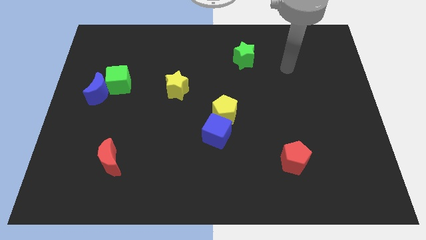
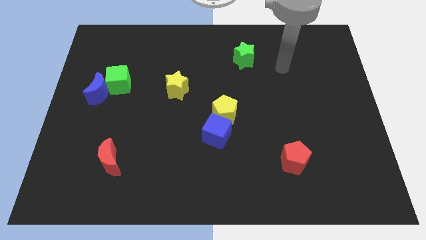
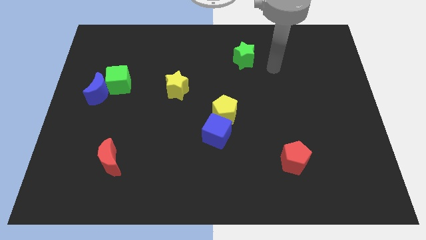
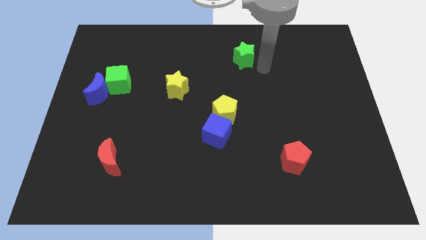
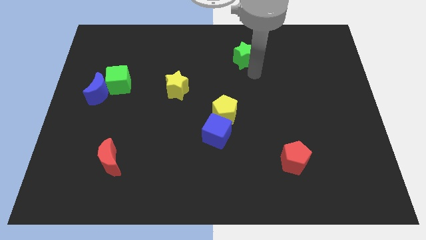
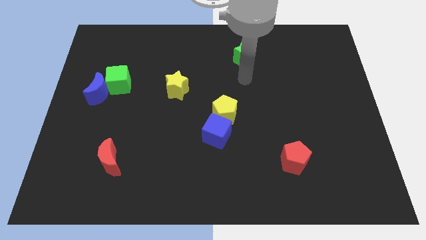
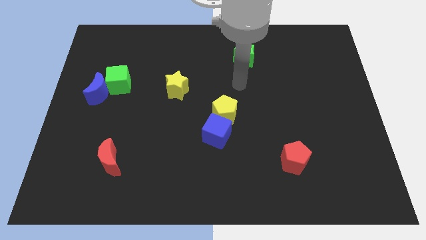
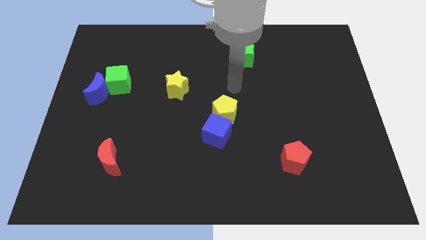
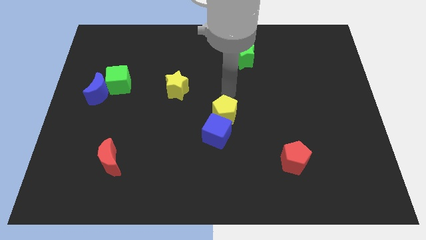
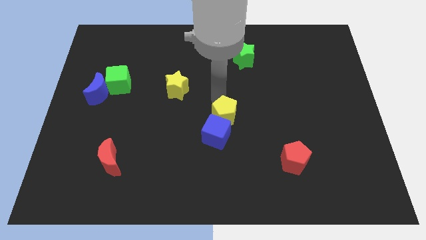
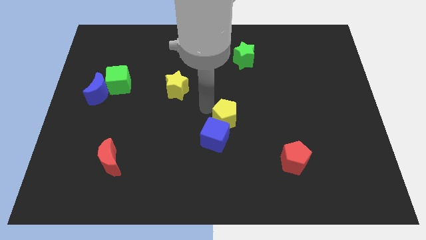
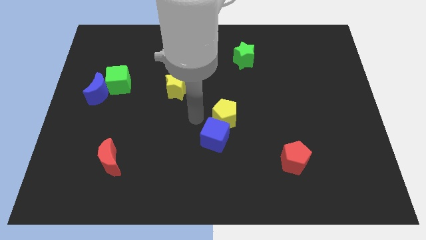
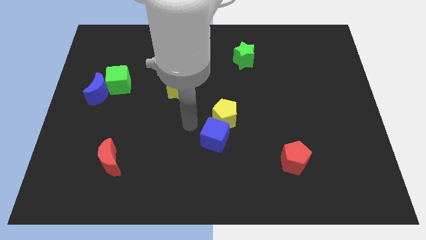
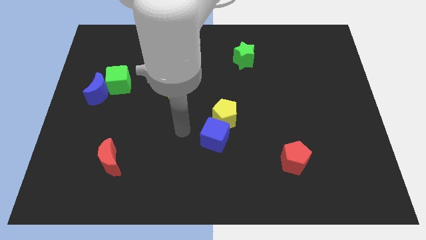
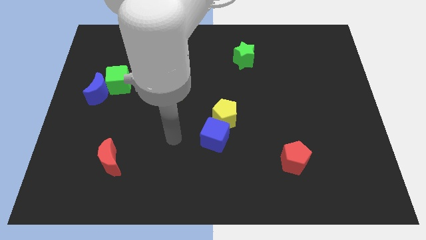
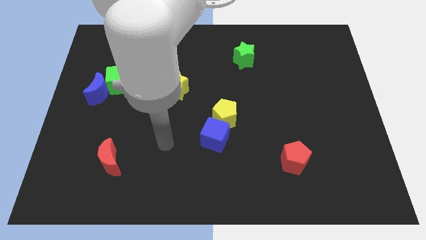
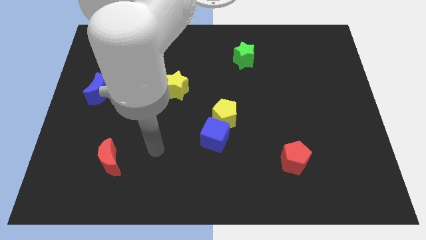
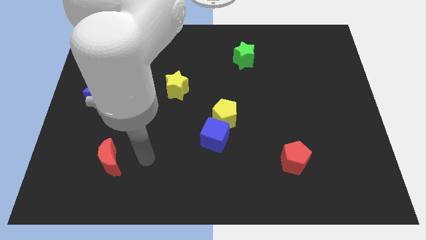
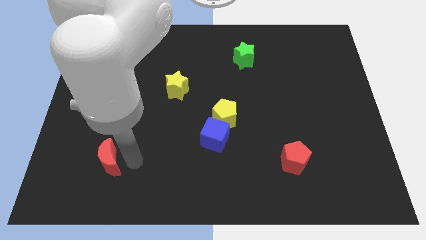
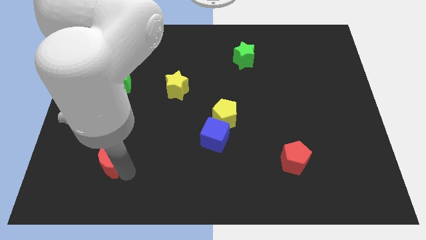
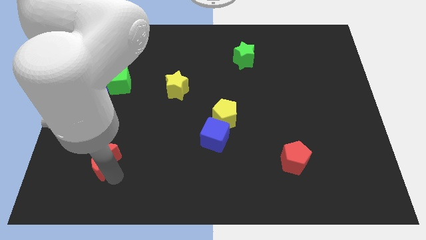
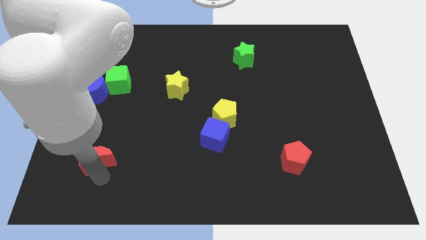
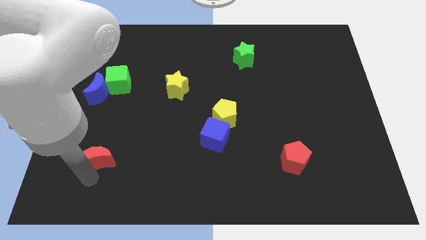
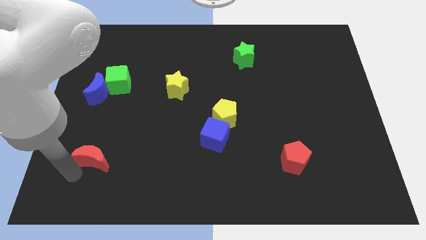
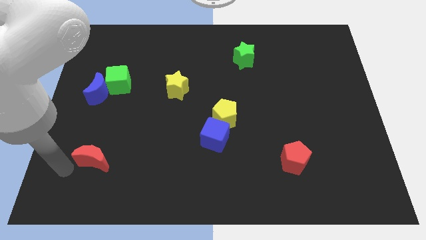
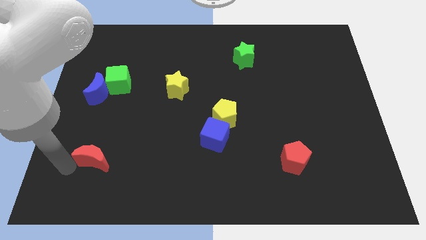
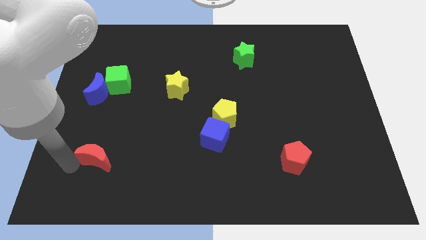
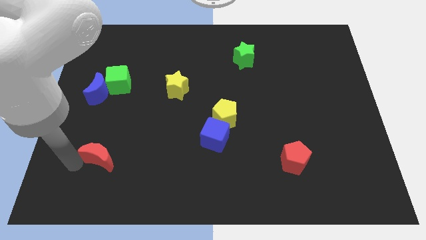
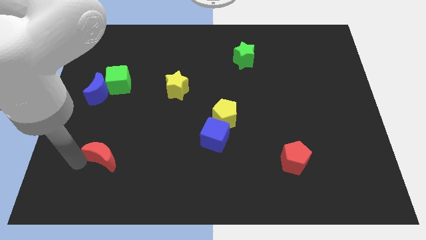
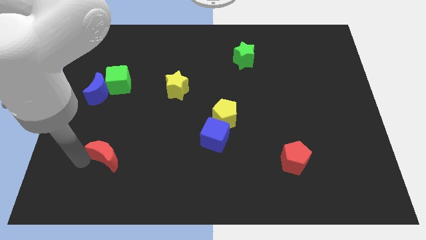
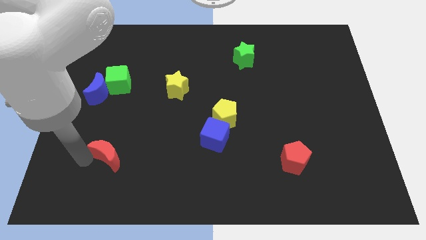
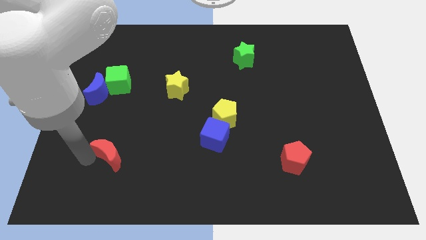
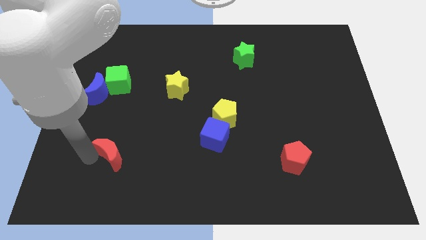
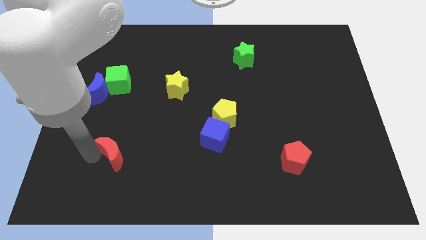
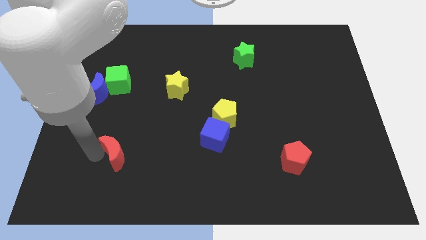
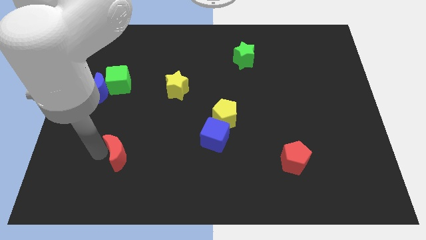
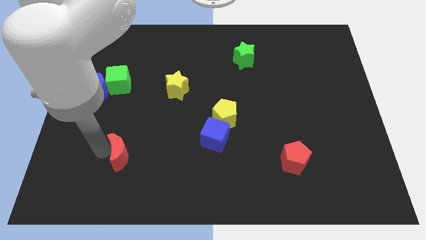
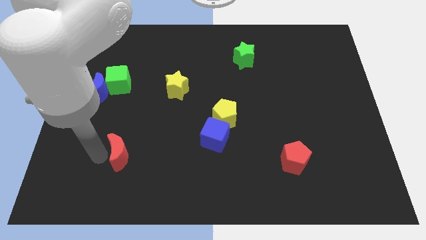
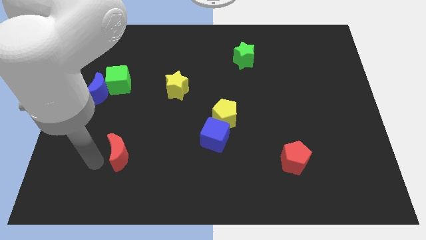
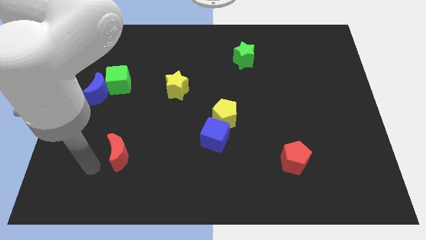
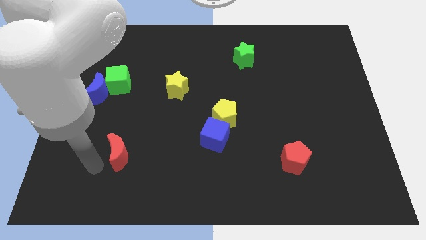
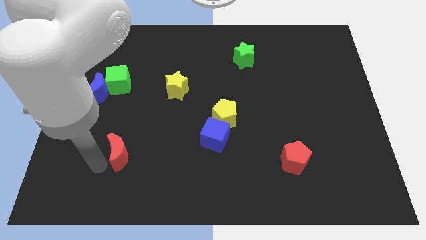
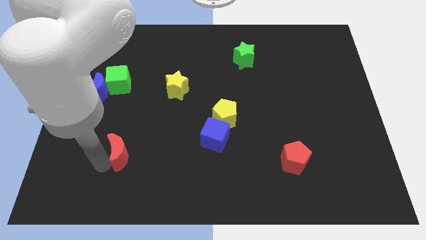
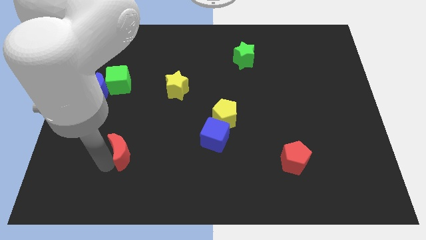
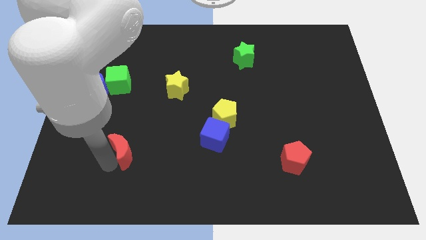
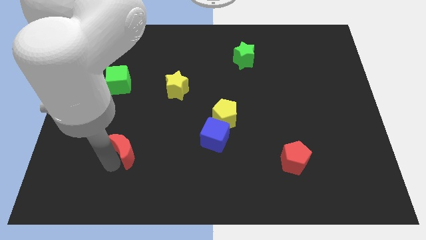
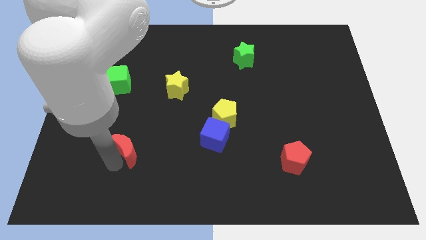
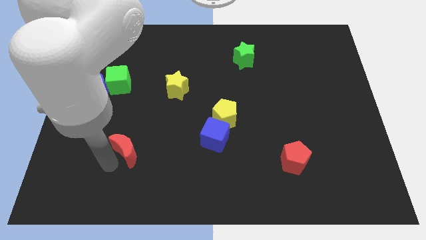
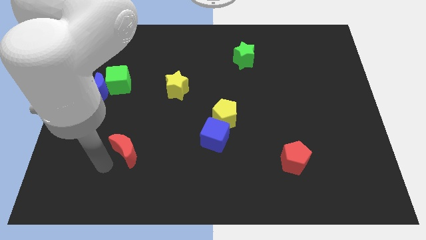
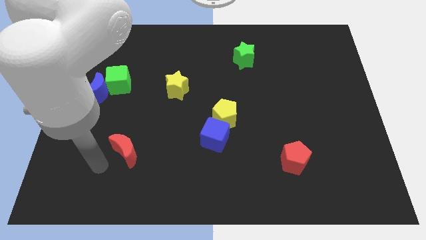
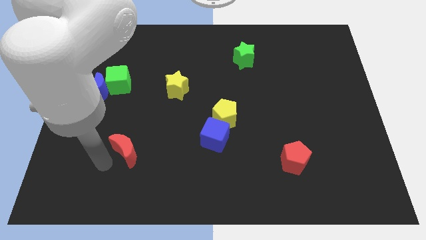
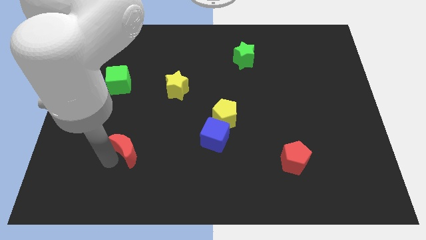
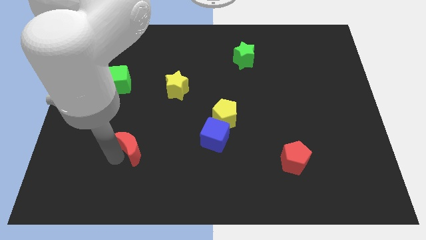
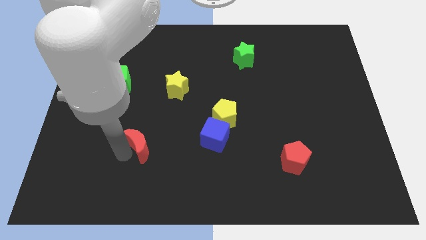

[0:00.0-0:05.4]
push the red moon somewhat diagonally up and right

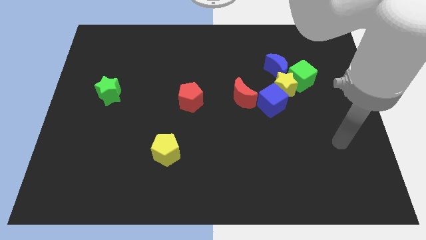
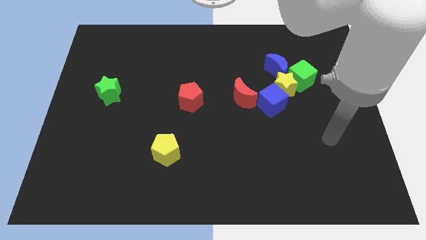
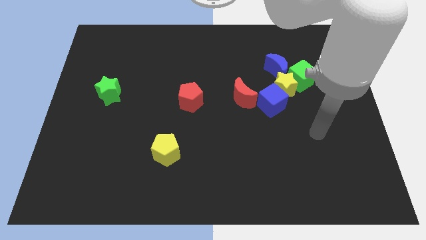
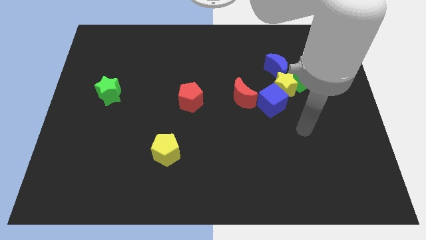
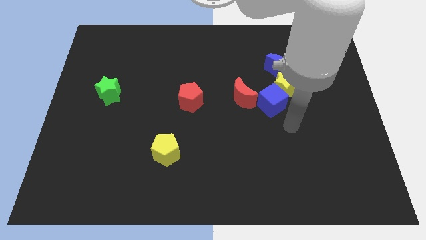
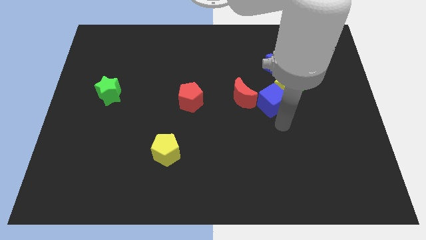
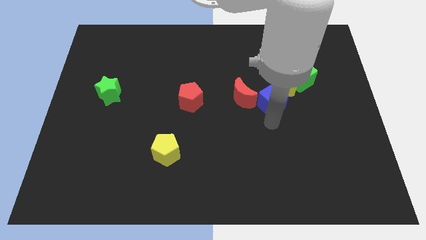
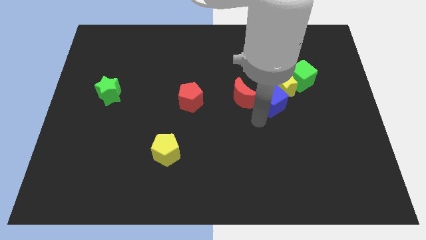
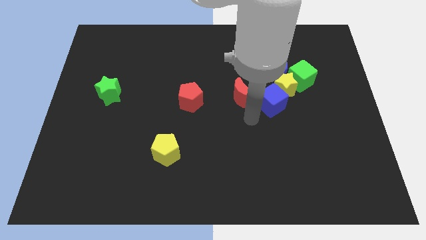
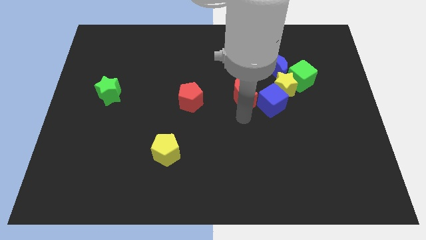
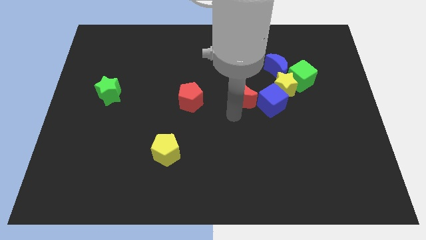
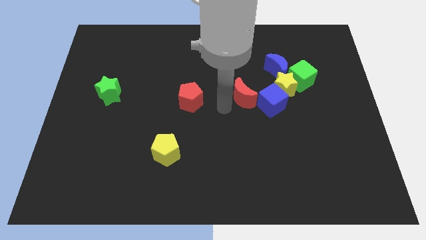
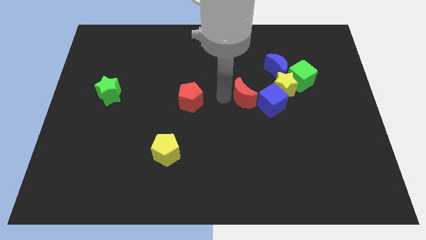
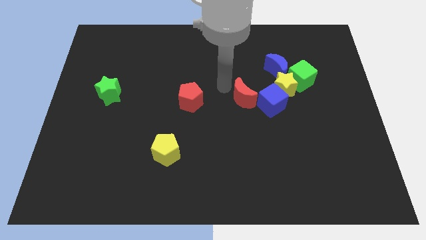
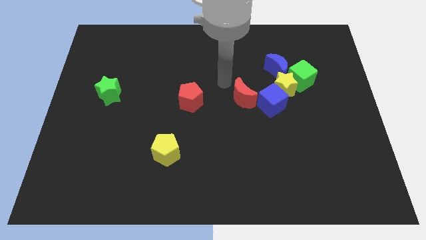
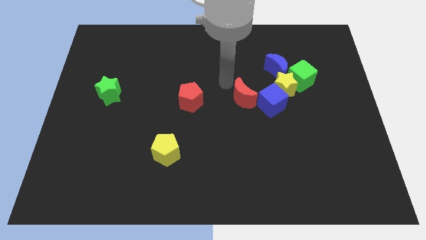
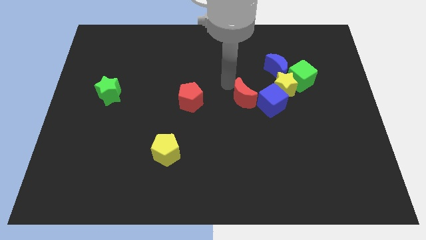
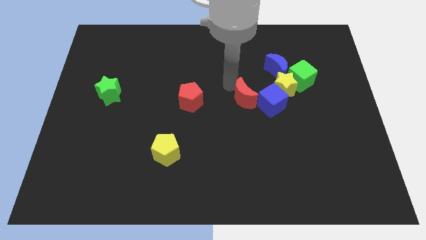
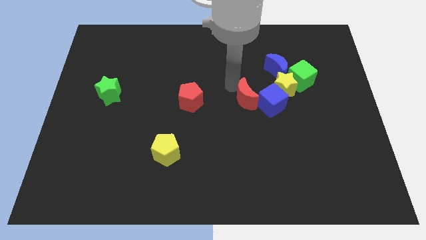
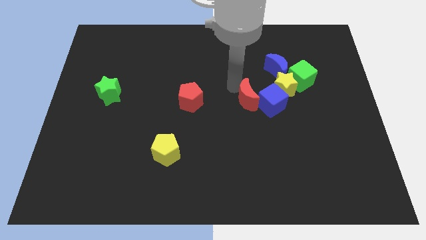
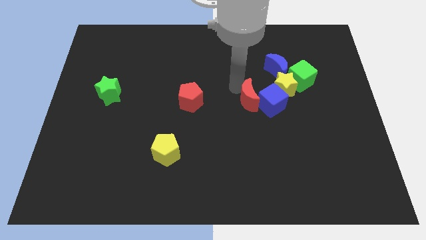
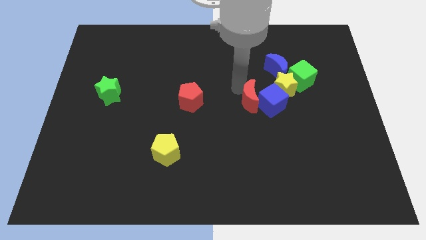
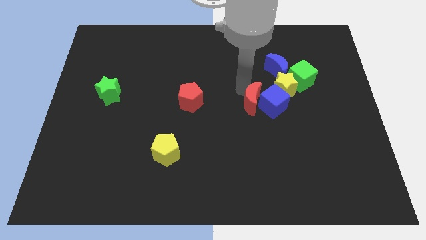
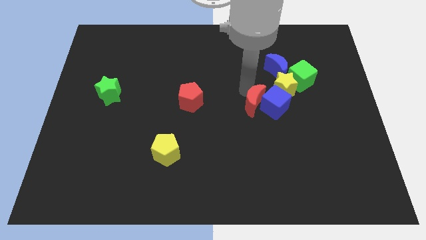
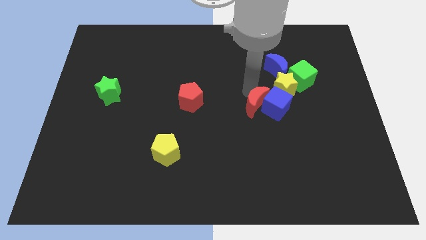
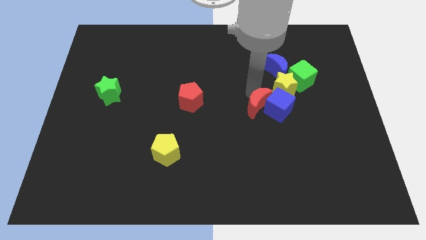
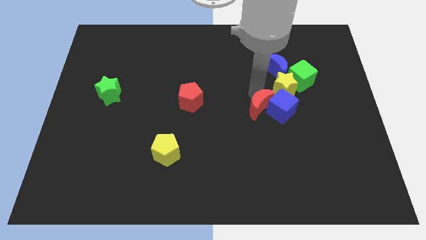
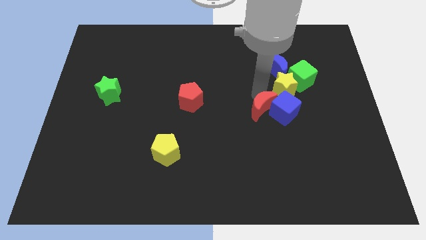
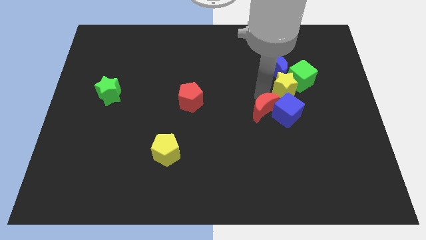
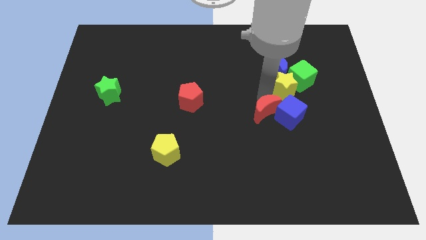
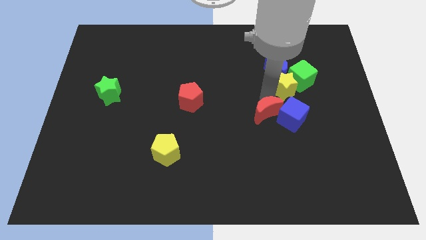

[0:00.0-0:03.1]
push the red moon downwards and right somewhat
